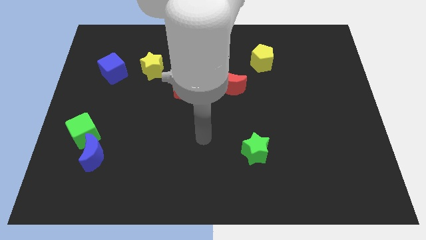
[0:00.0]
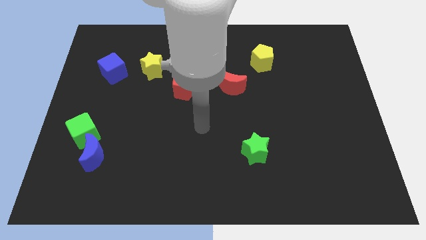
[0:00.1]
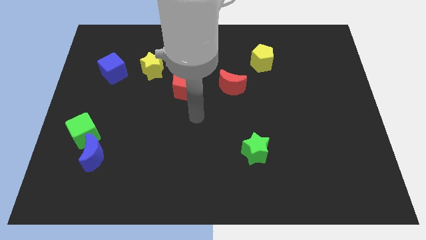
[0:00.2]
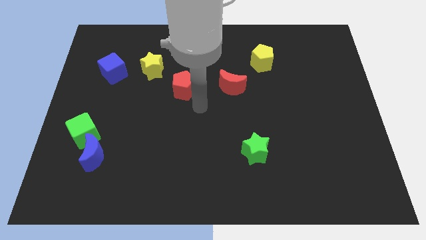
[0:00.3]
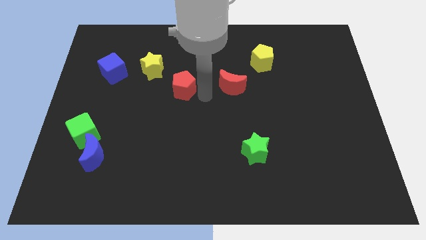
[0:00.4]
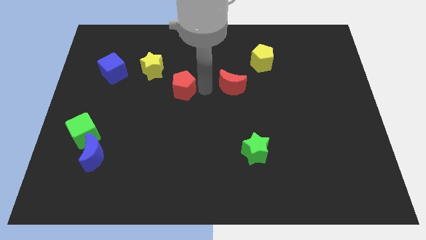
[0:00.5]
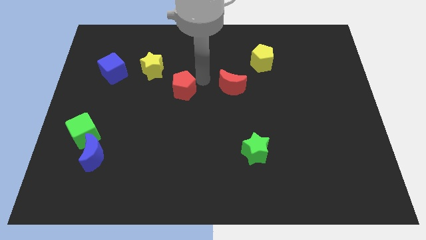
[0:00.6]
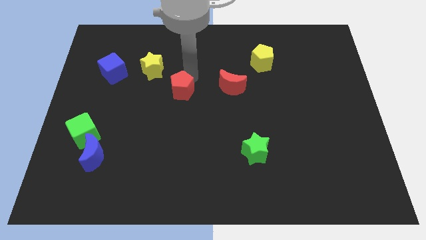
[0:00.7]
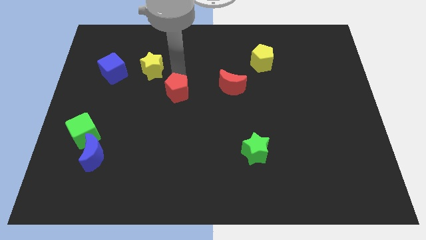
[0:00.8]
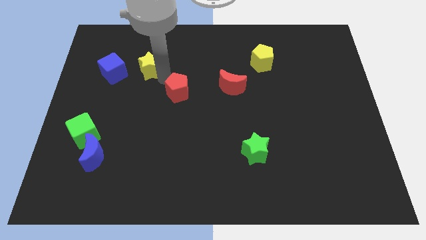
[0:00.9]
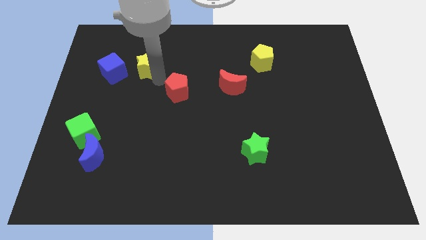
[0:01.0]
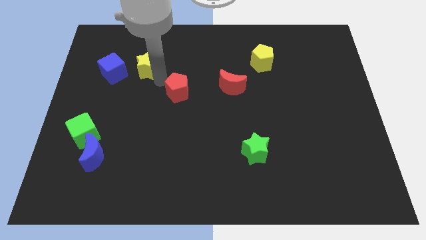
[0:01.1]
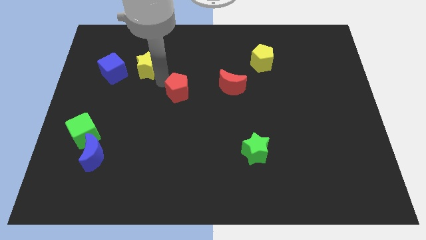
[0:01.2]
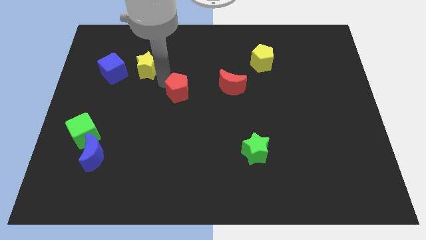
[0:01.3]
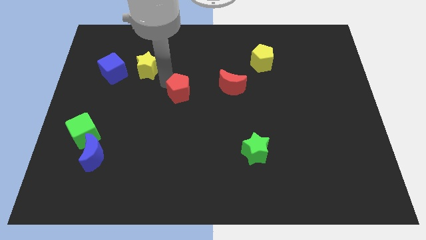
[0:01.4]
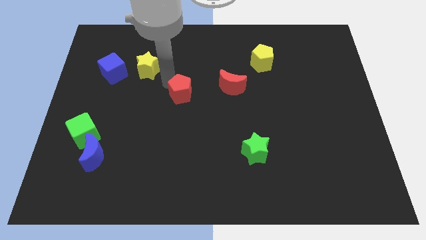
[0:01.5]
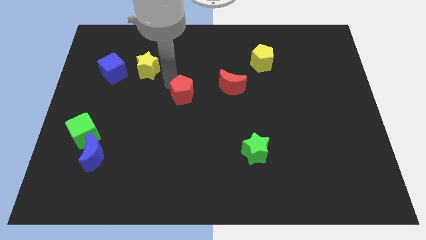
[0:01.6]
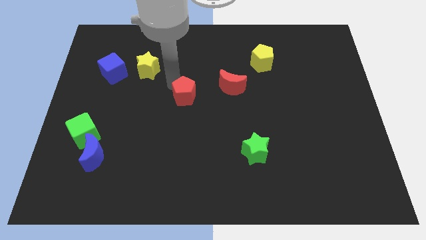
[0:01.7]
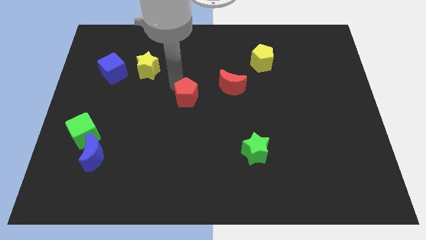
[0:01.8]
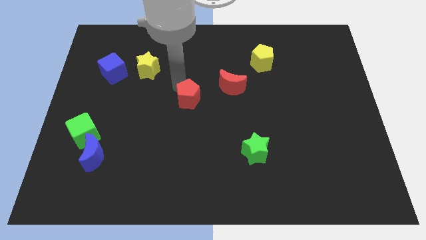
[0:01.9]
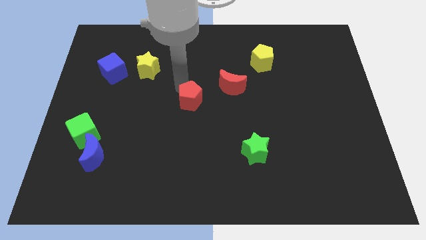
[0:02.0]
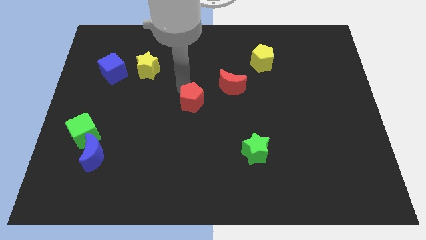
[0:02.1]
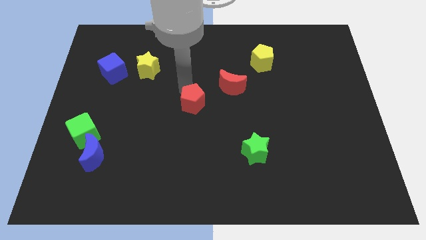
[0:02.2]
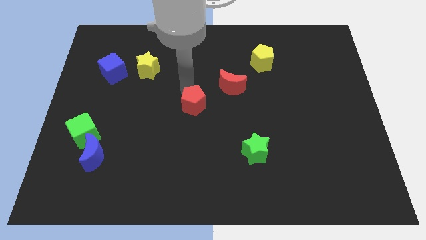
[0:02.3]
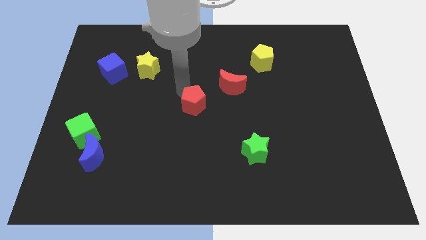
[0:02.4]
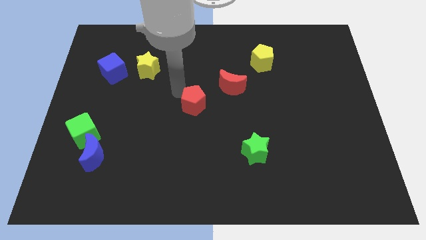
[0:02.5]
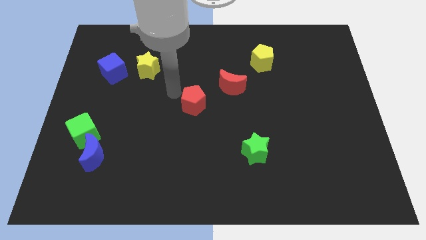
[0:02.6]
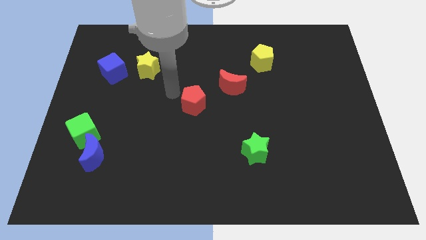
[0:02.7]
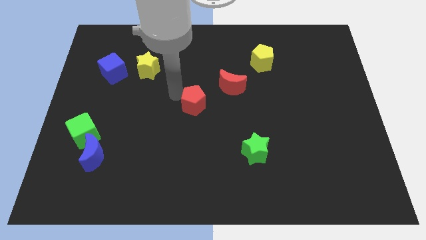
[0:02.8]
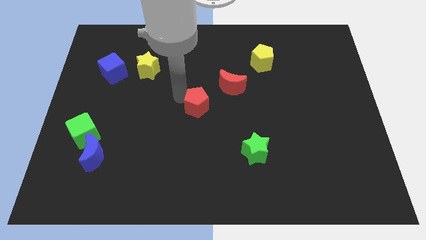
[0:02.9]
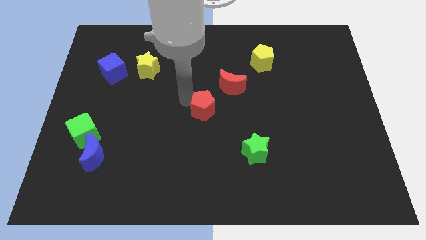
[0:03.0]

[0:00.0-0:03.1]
push the red pentagon diagonally down and right somewhat

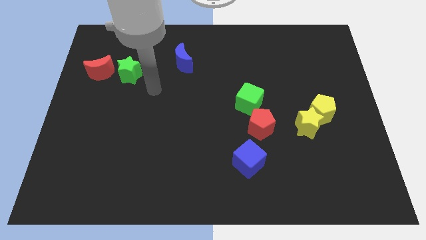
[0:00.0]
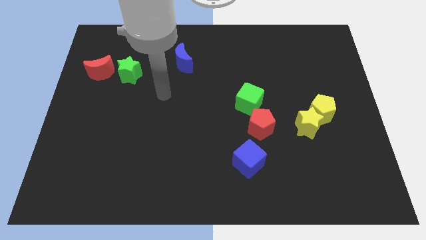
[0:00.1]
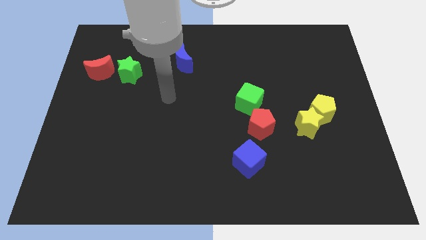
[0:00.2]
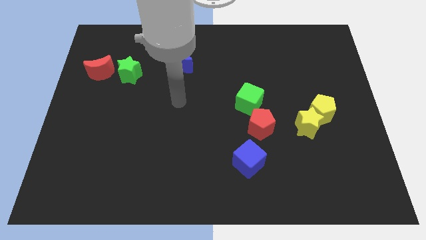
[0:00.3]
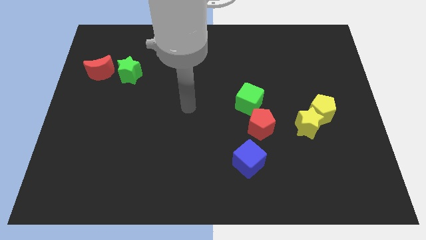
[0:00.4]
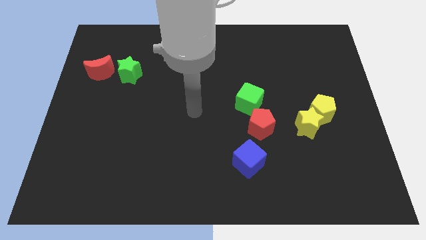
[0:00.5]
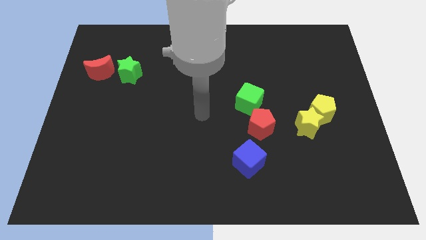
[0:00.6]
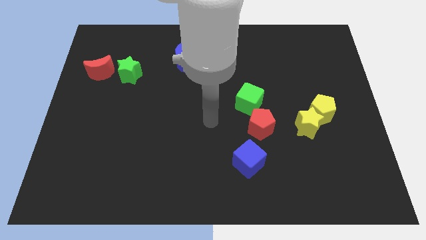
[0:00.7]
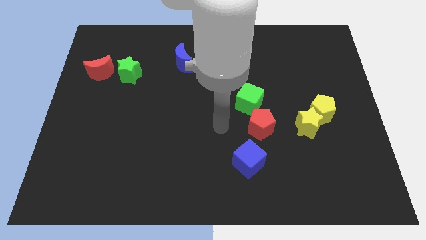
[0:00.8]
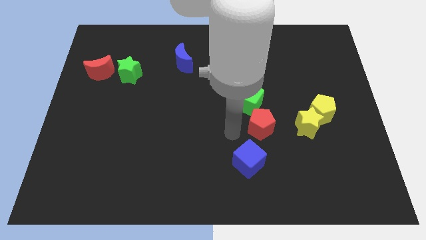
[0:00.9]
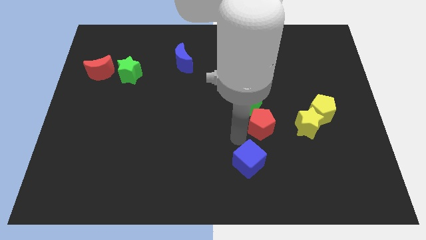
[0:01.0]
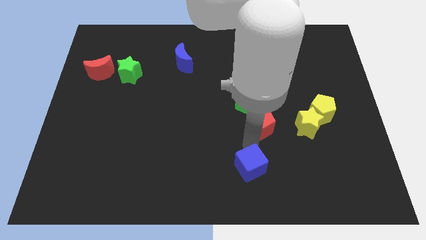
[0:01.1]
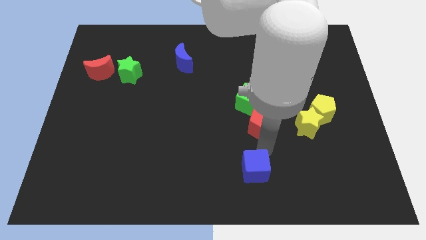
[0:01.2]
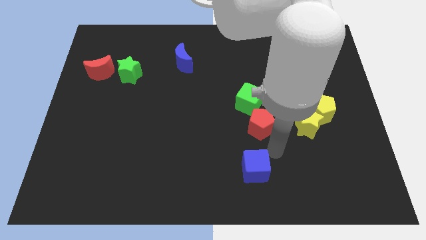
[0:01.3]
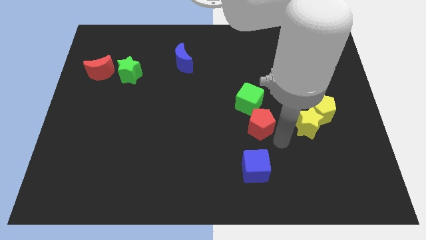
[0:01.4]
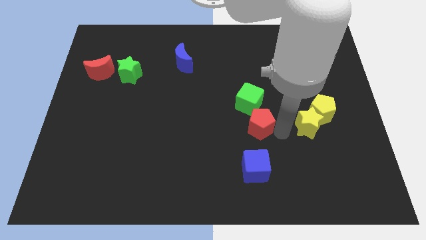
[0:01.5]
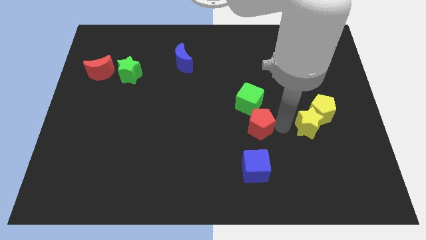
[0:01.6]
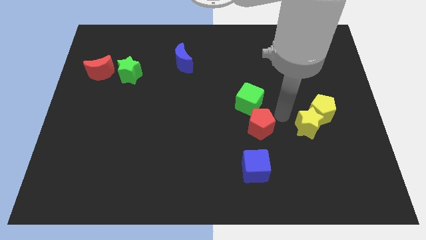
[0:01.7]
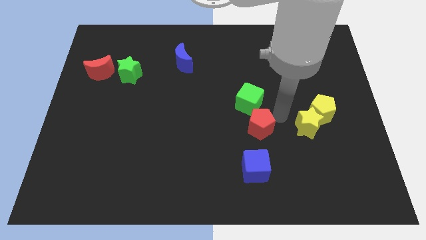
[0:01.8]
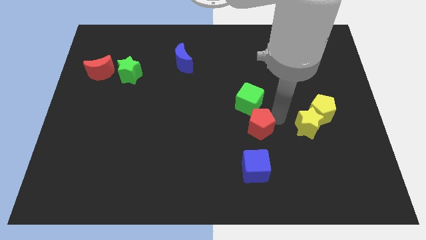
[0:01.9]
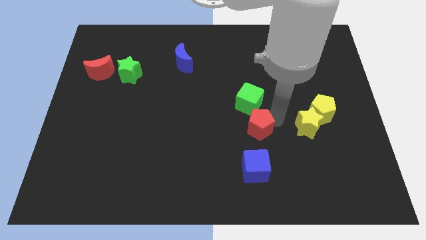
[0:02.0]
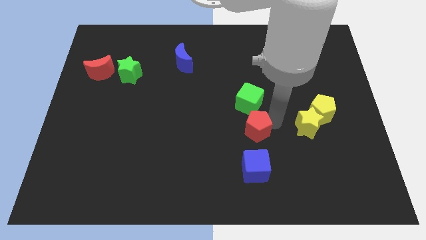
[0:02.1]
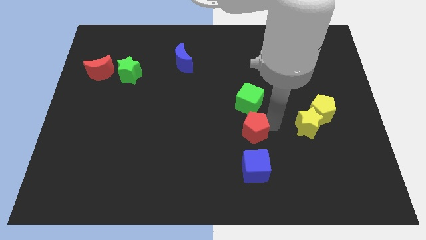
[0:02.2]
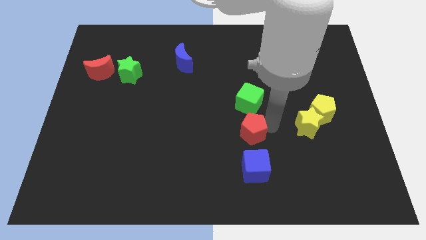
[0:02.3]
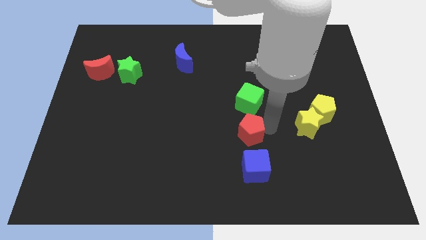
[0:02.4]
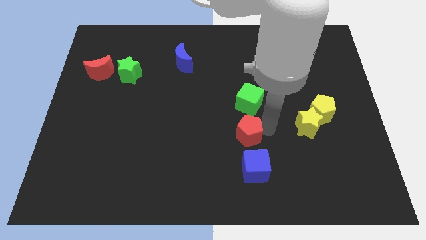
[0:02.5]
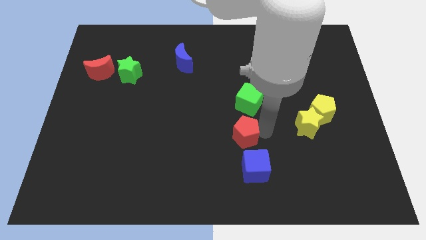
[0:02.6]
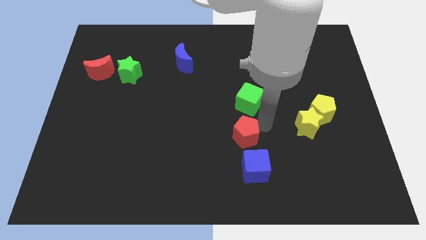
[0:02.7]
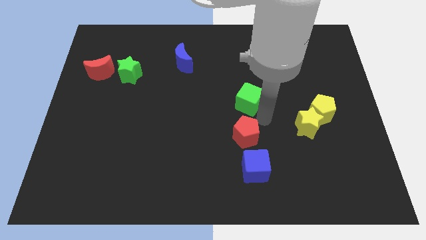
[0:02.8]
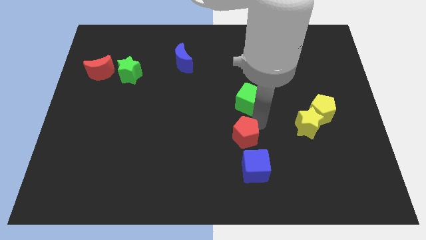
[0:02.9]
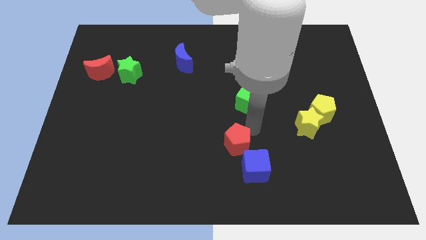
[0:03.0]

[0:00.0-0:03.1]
move the red pentagon downwards and to the left diagonally somewhat

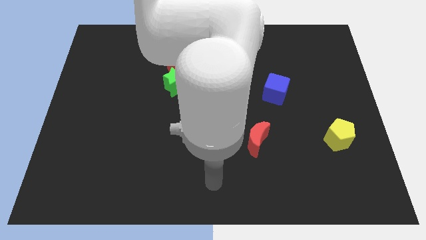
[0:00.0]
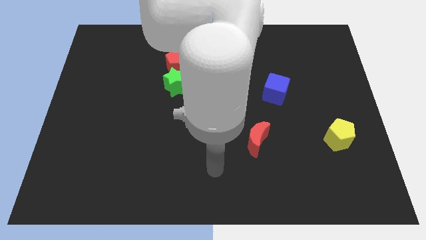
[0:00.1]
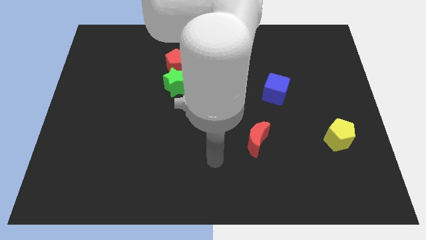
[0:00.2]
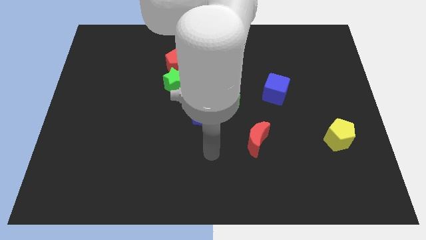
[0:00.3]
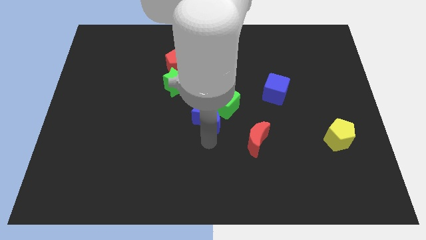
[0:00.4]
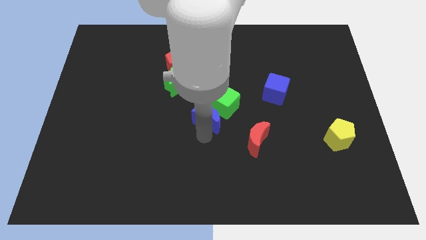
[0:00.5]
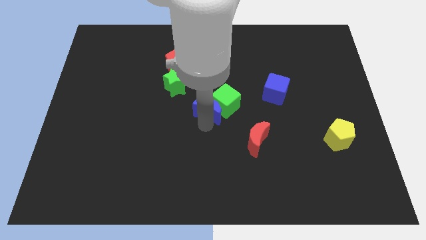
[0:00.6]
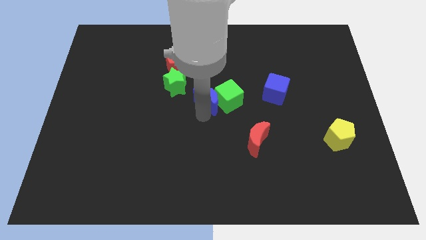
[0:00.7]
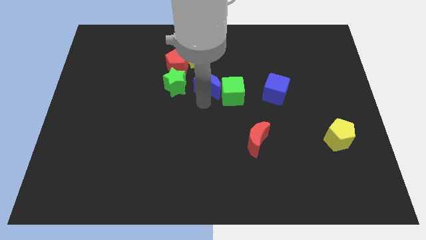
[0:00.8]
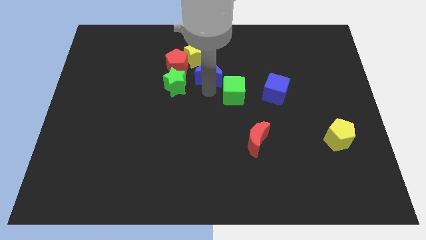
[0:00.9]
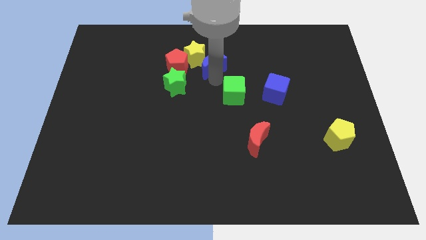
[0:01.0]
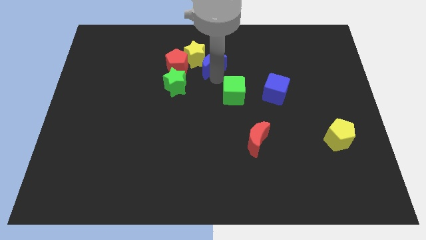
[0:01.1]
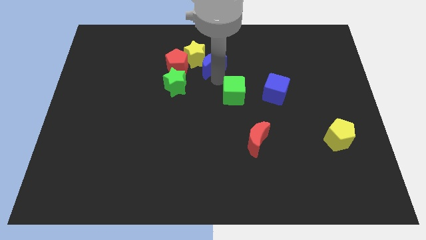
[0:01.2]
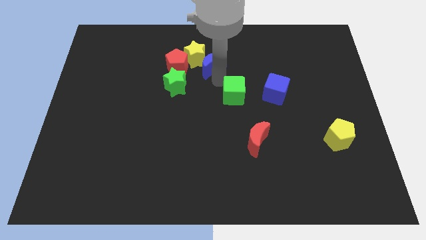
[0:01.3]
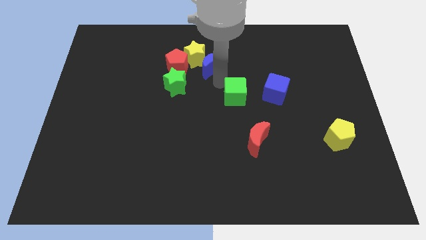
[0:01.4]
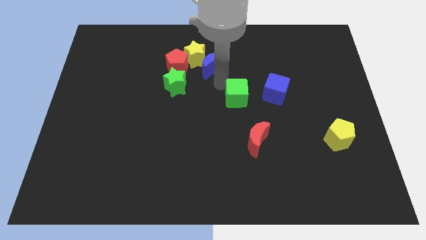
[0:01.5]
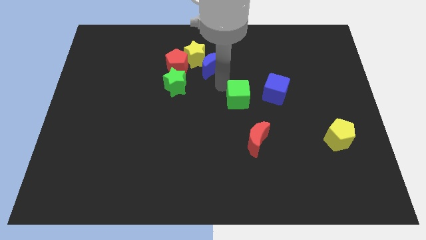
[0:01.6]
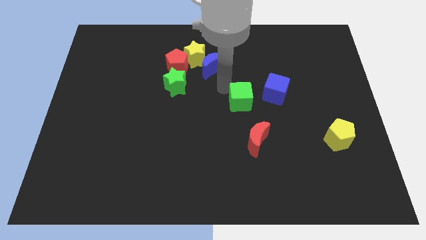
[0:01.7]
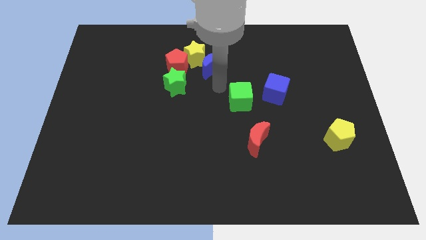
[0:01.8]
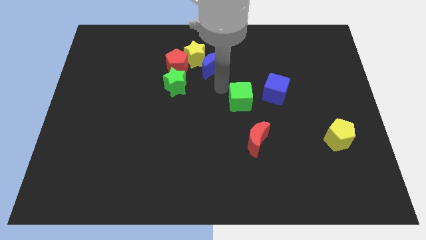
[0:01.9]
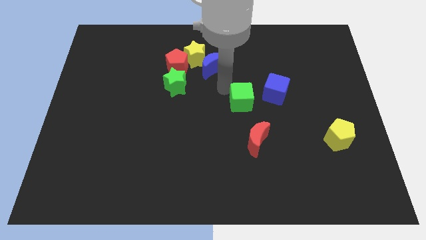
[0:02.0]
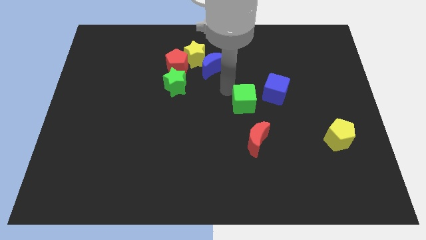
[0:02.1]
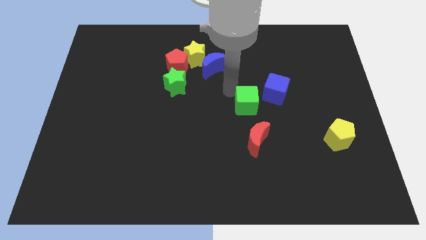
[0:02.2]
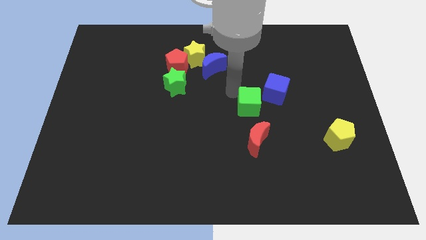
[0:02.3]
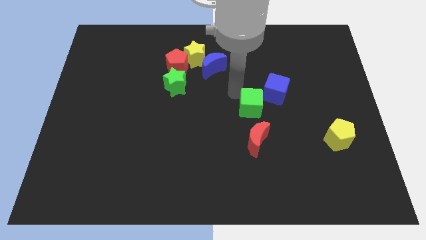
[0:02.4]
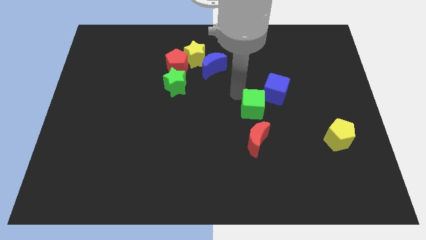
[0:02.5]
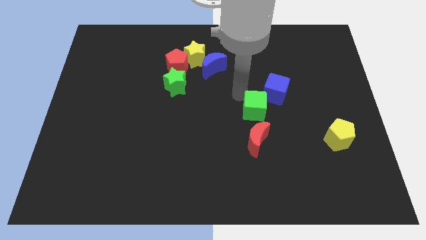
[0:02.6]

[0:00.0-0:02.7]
push the green cube a little to the right
